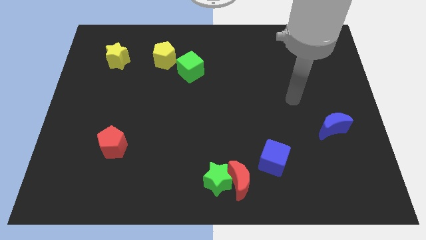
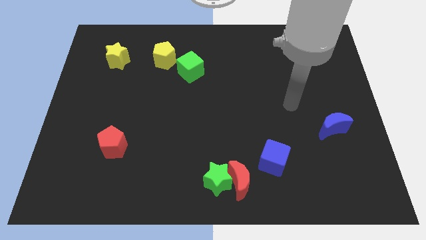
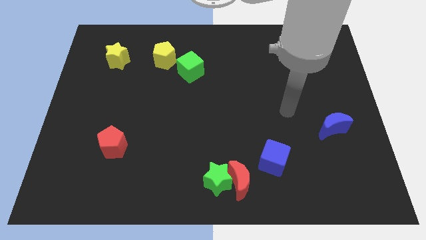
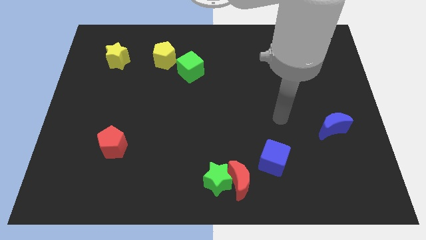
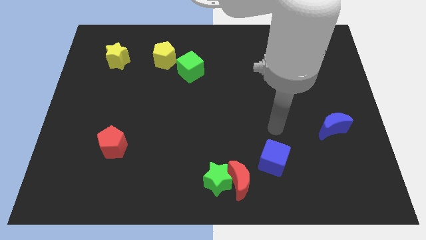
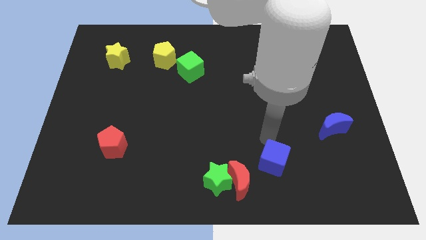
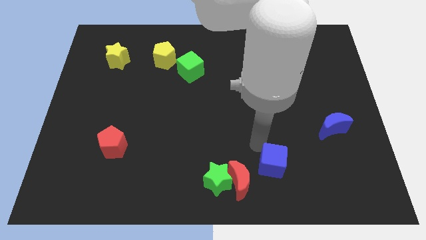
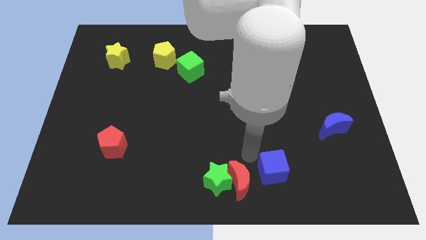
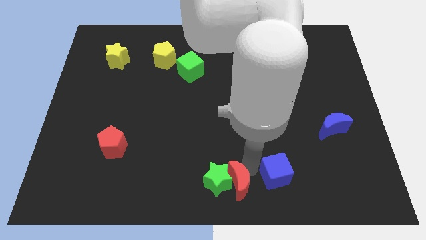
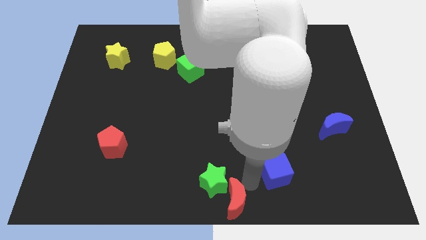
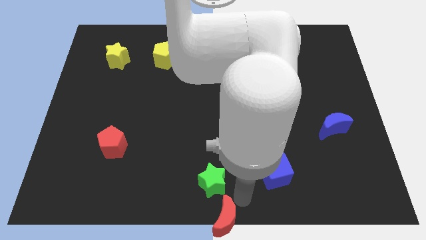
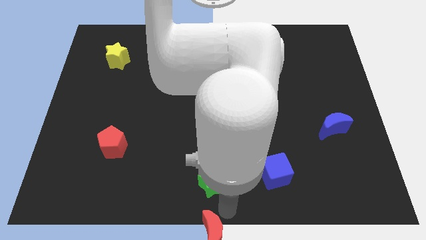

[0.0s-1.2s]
separate the green star from the red moon

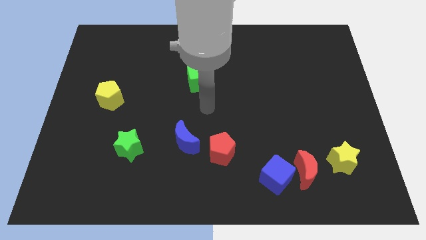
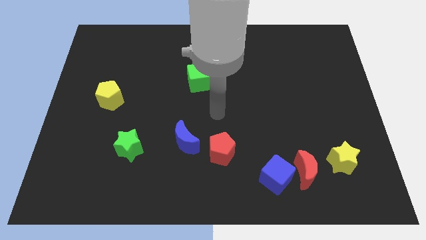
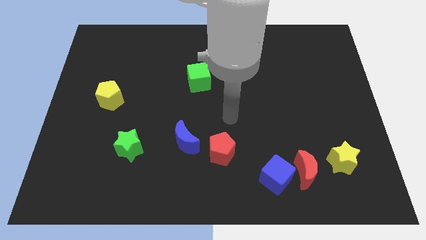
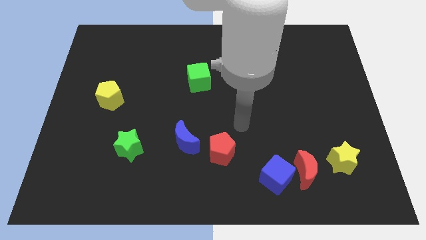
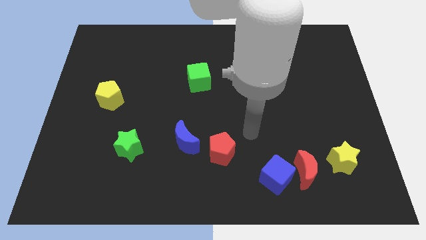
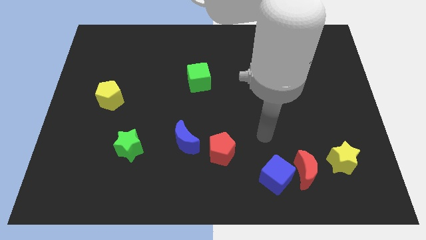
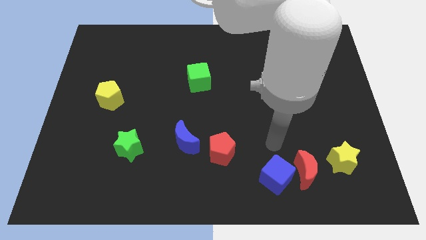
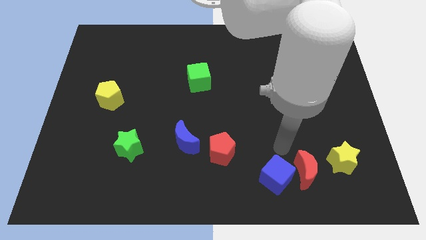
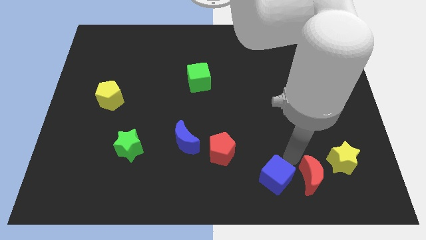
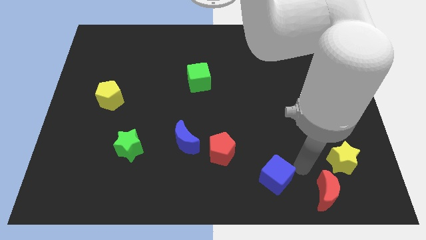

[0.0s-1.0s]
separate the blue cube from the red moon

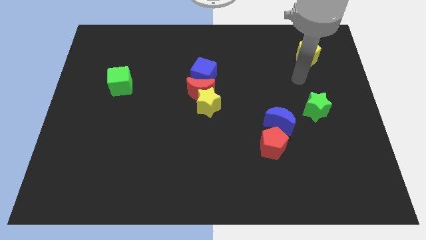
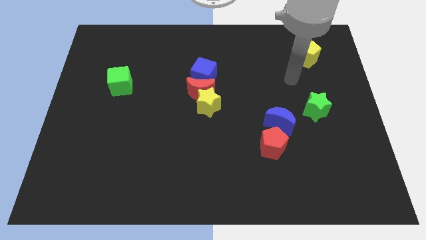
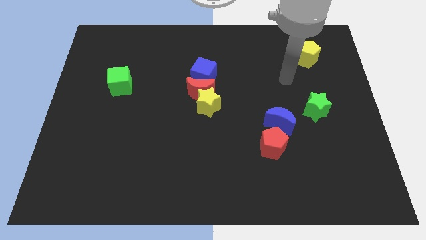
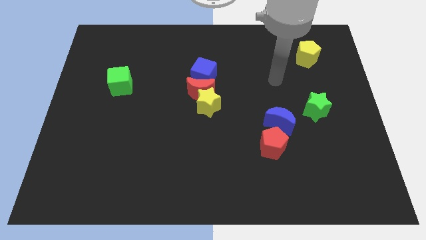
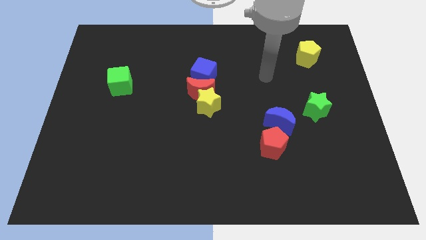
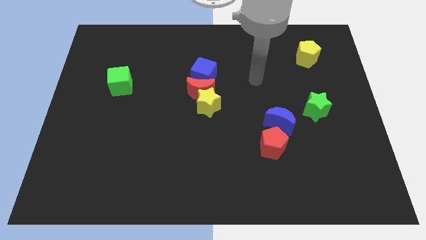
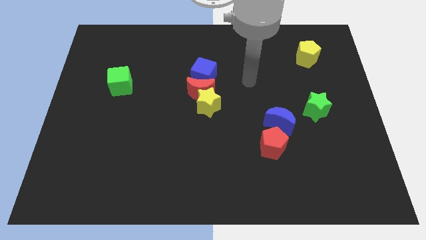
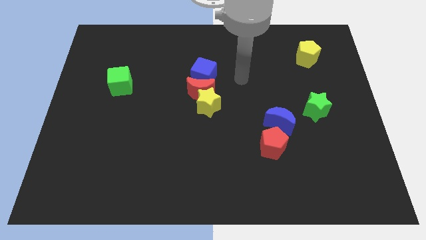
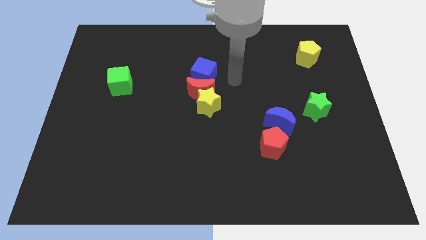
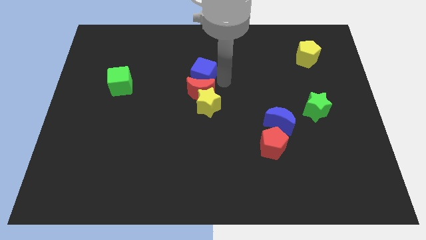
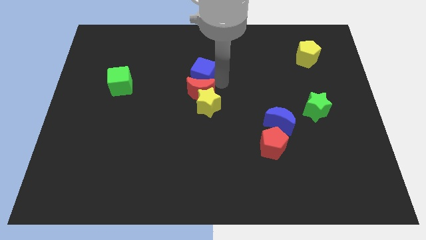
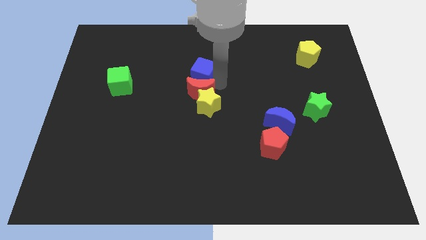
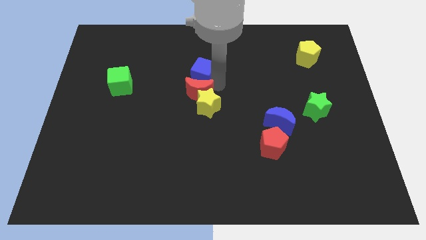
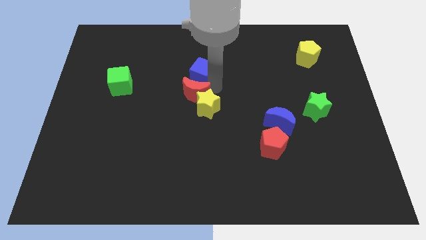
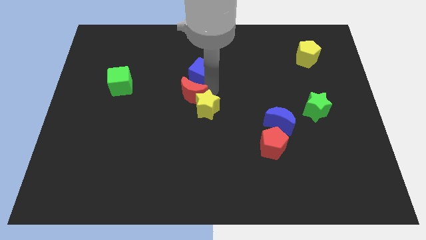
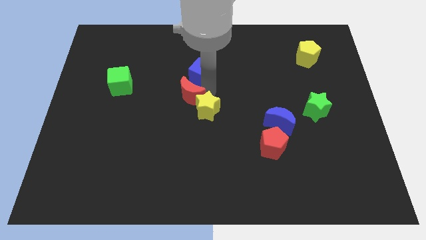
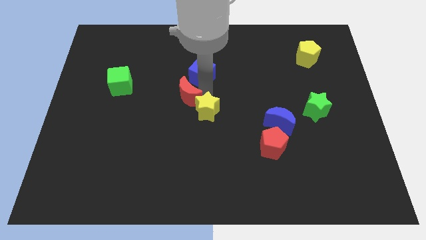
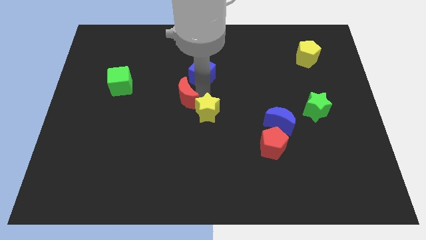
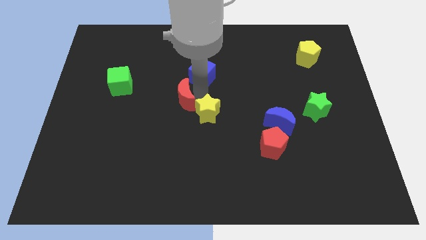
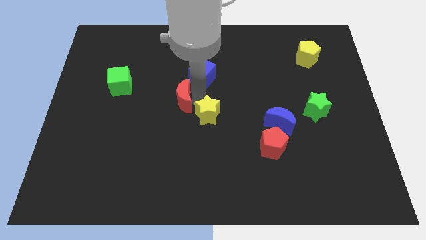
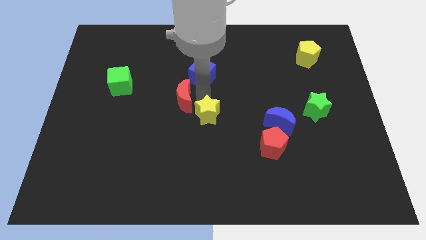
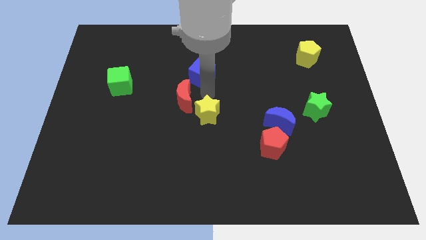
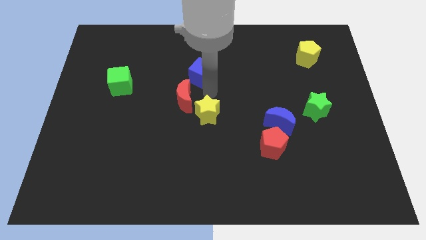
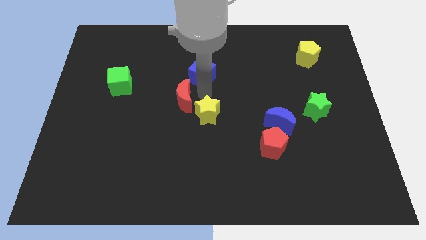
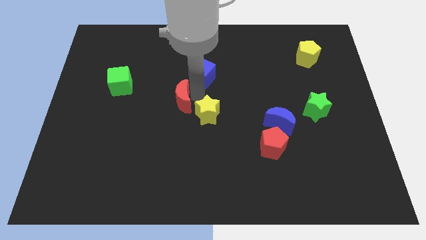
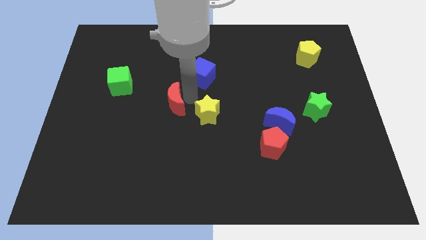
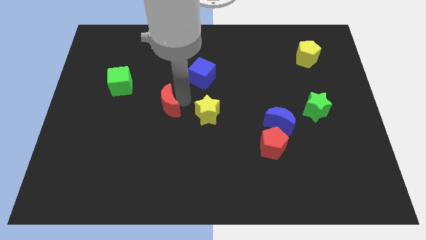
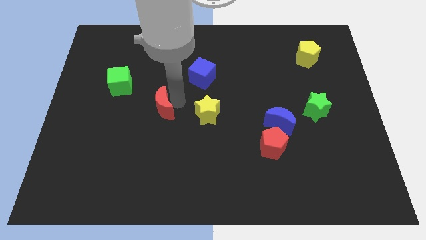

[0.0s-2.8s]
separate the red moon from the yellow star and blue cube

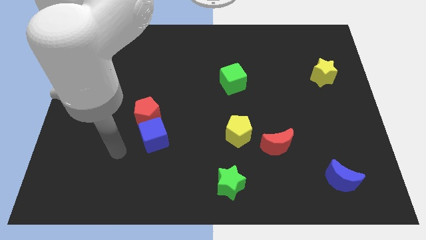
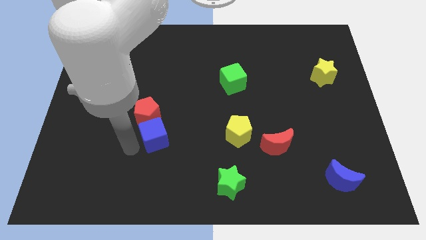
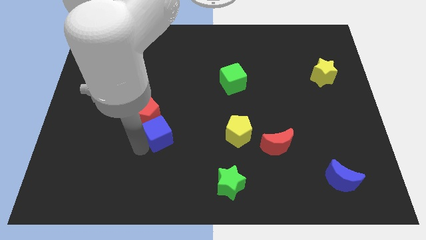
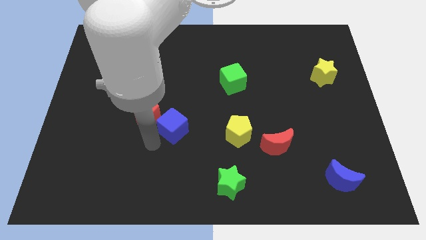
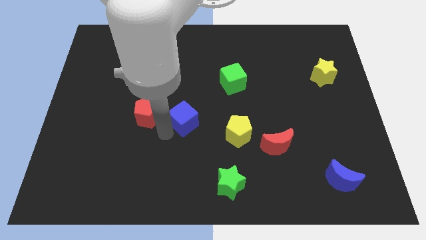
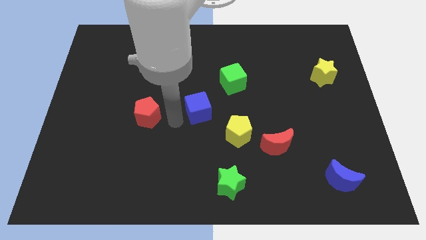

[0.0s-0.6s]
pull the red pentagon apart from the blue cube

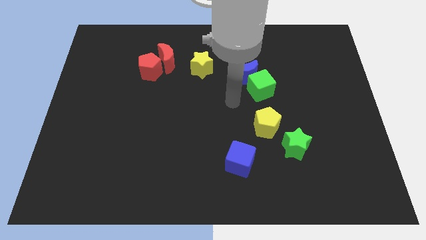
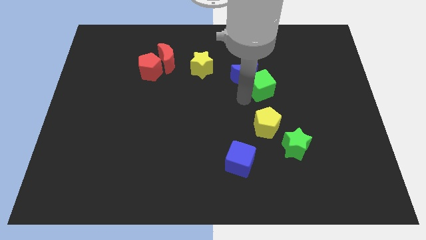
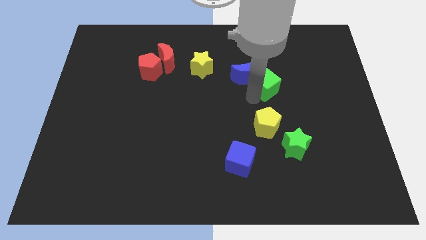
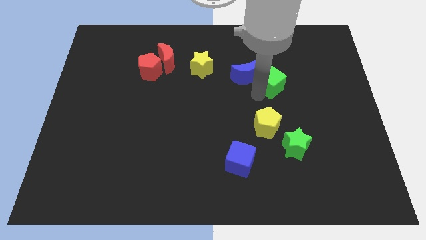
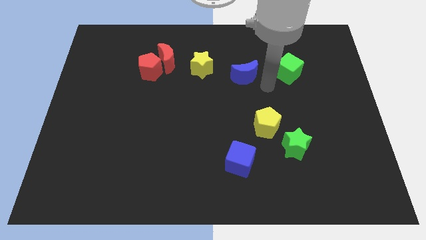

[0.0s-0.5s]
pull the blue moon apart from the green cube

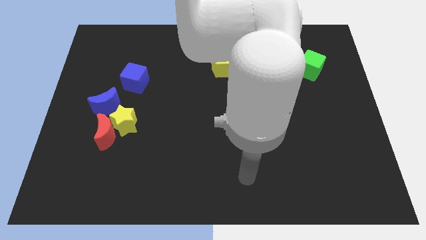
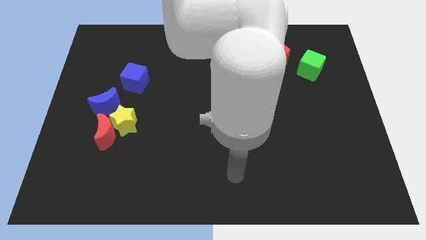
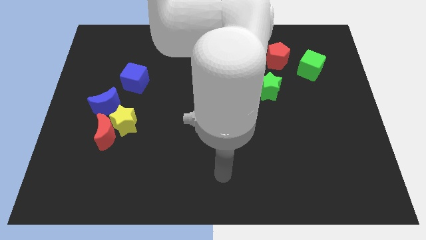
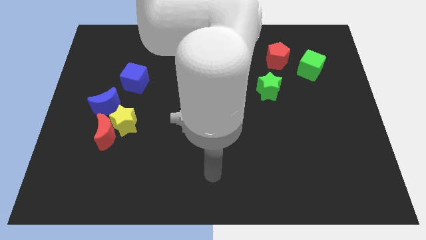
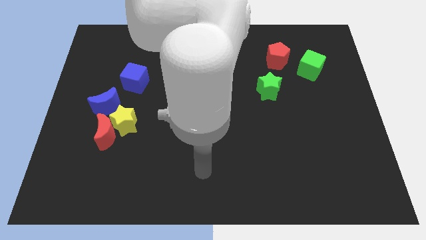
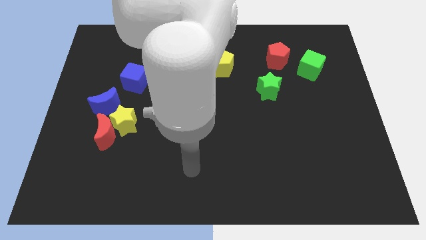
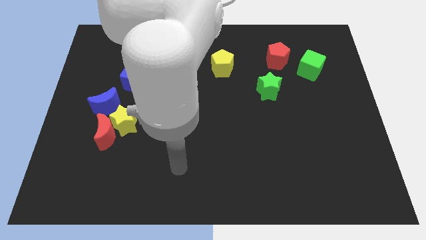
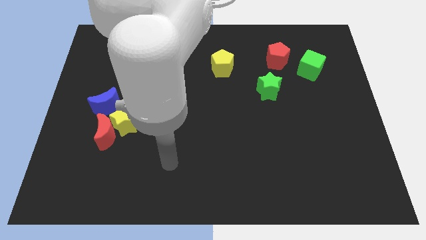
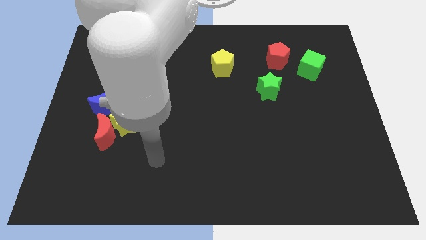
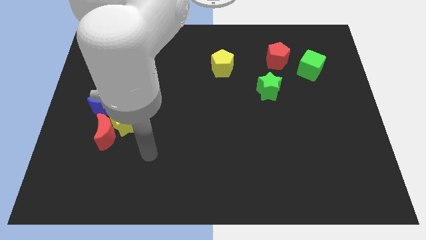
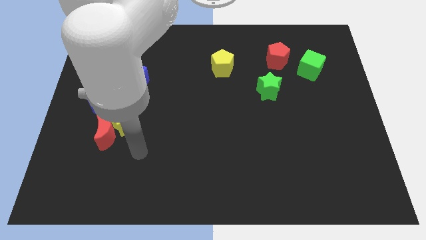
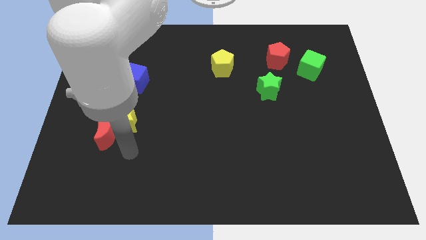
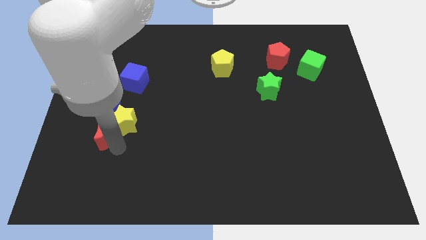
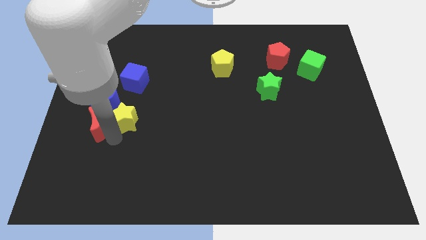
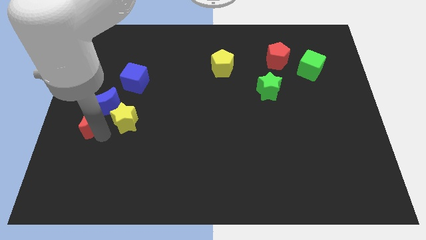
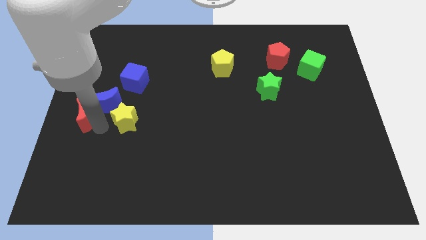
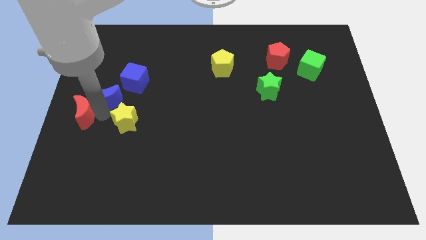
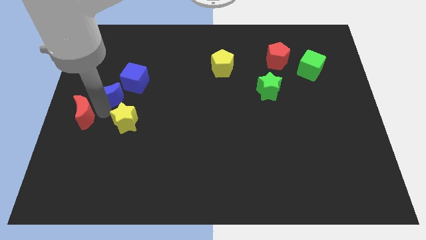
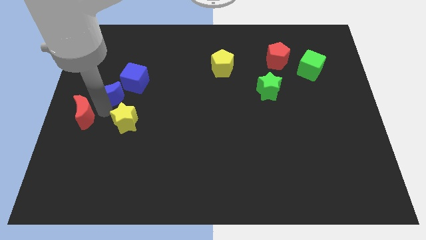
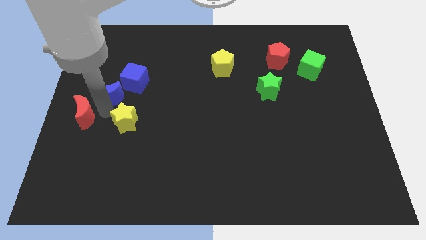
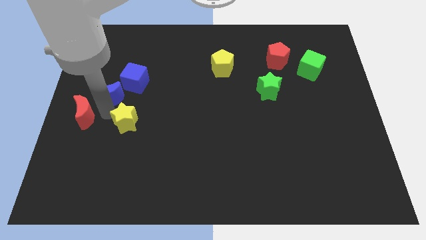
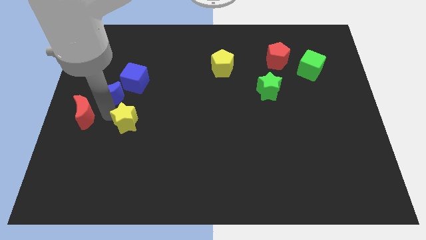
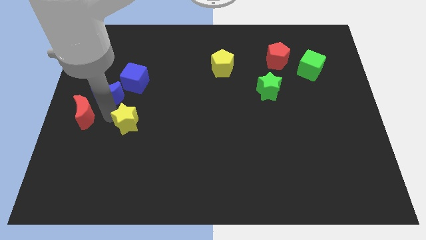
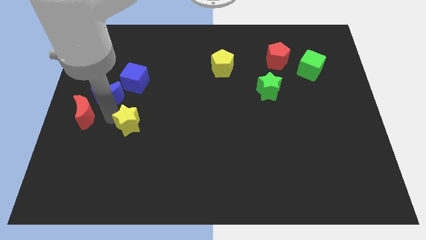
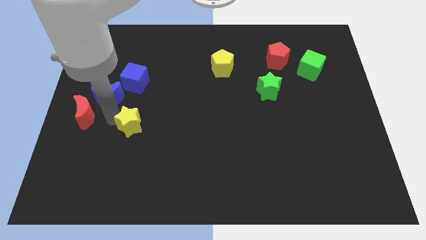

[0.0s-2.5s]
separate the yellow star from the red moon and blue moon

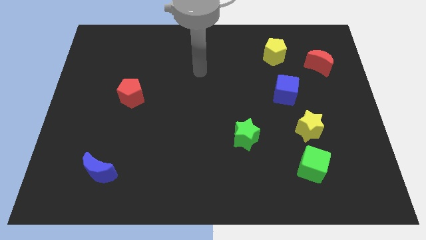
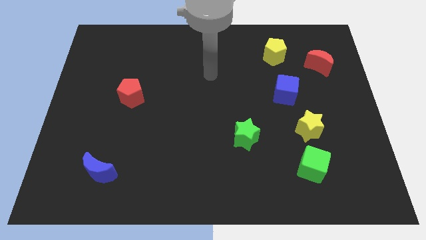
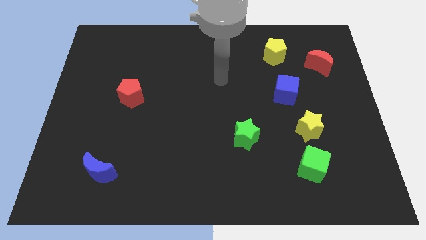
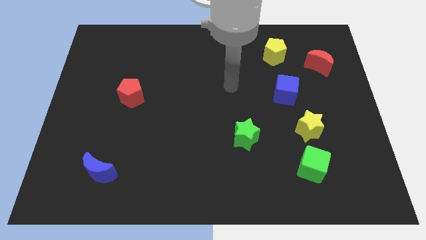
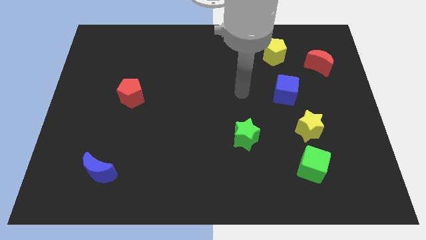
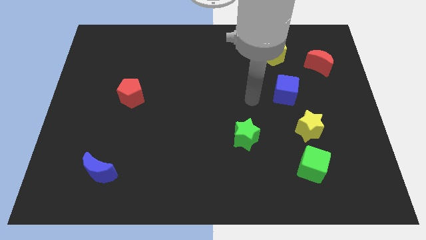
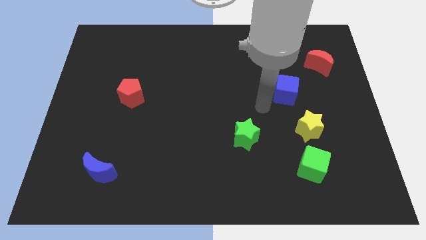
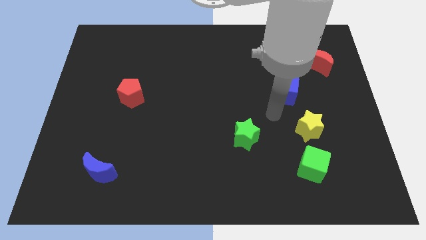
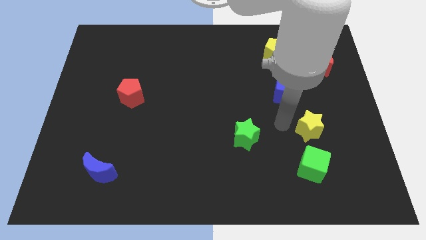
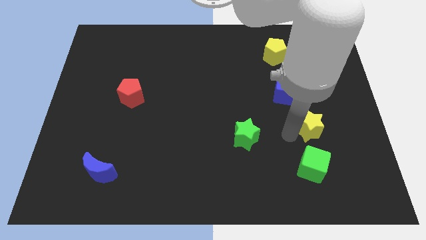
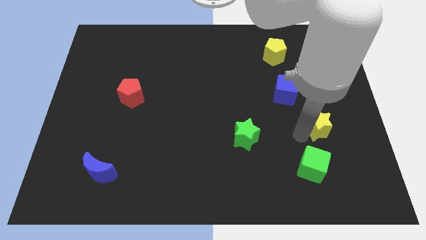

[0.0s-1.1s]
separate the green cube from the yellow star
